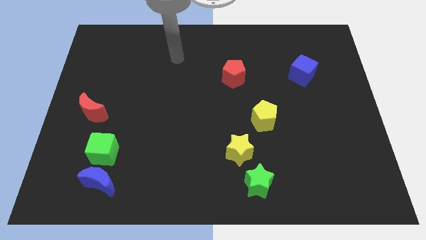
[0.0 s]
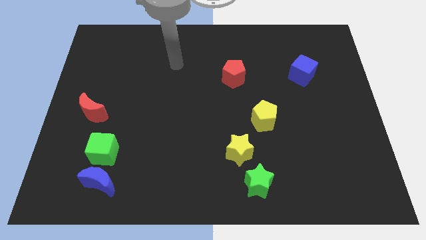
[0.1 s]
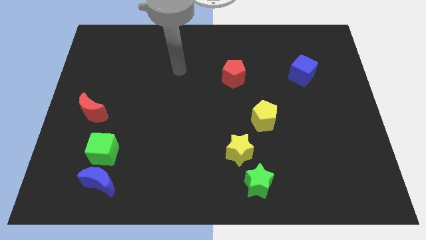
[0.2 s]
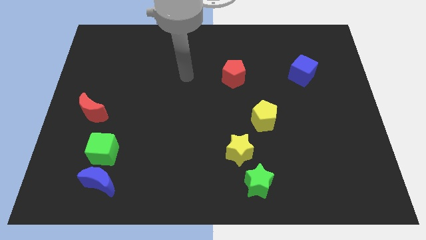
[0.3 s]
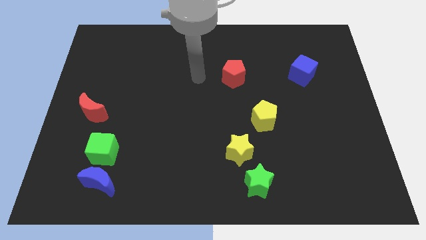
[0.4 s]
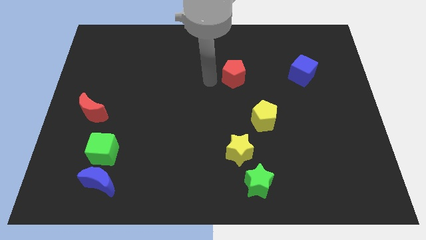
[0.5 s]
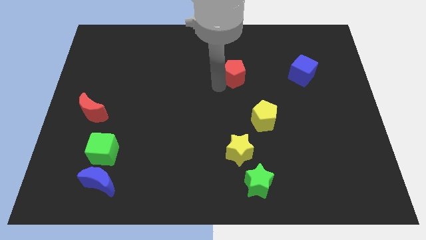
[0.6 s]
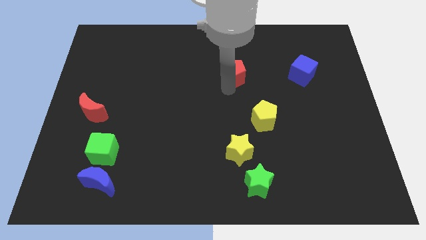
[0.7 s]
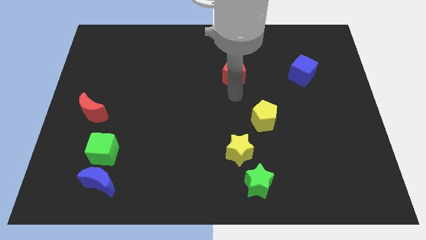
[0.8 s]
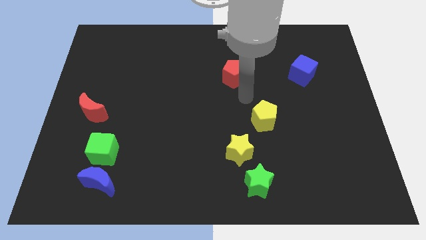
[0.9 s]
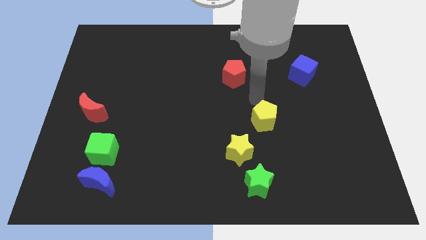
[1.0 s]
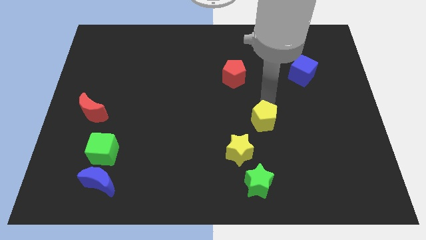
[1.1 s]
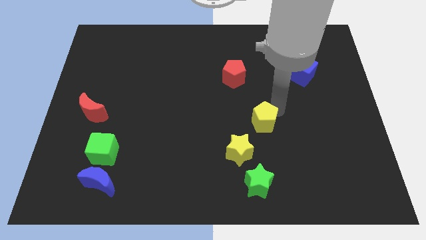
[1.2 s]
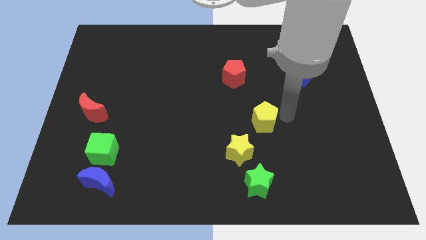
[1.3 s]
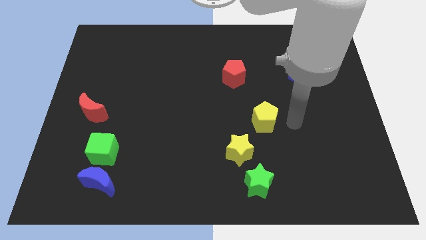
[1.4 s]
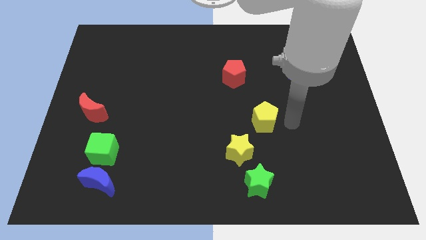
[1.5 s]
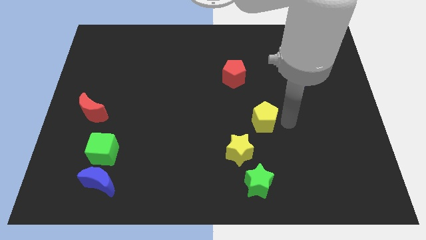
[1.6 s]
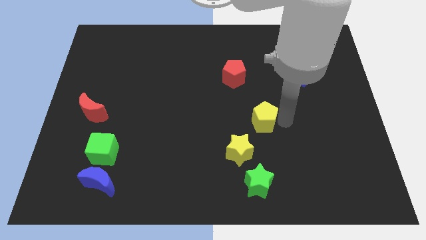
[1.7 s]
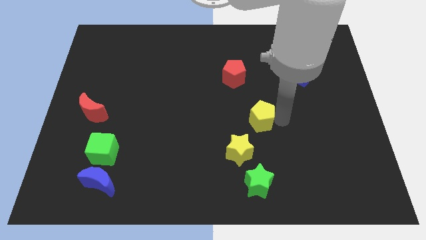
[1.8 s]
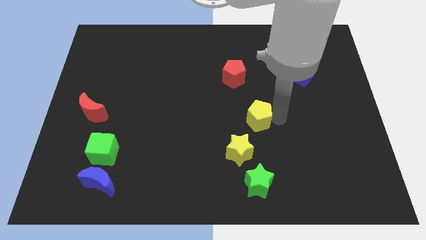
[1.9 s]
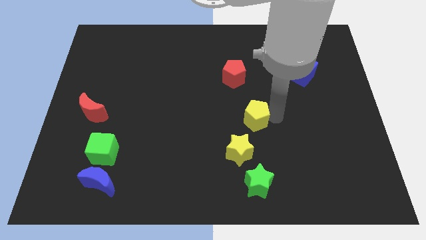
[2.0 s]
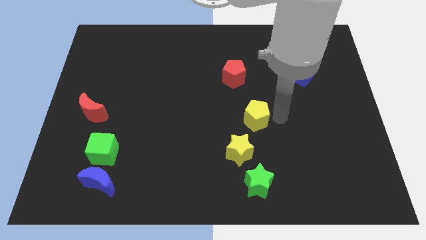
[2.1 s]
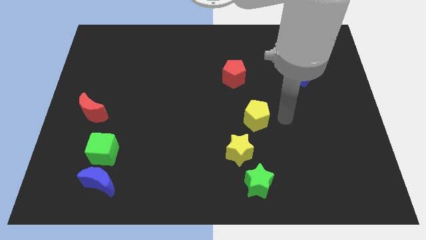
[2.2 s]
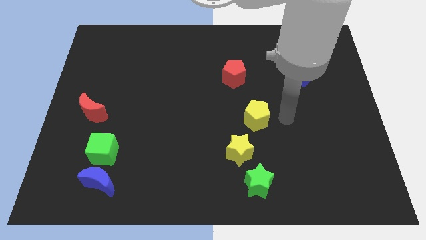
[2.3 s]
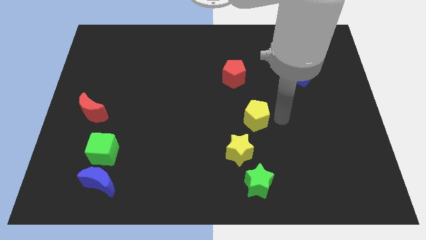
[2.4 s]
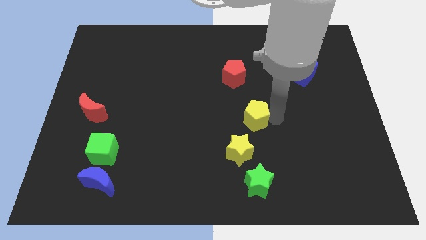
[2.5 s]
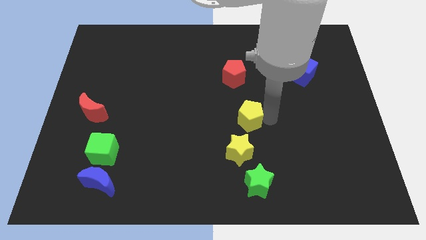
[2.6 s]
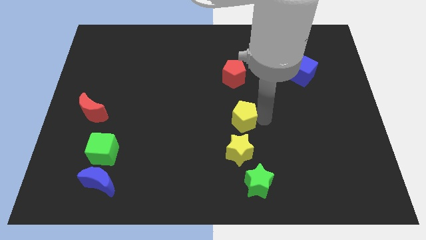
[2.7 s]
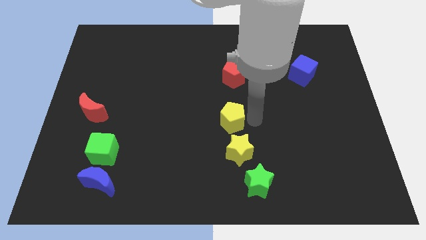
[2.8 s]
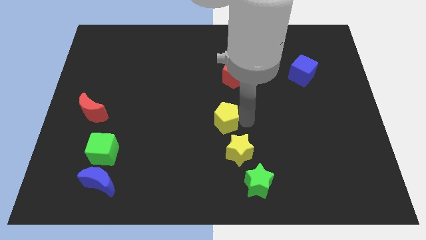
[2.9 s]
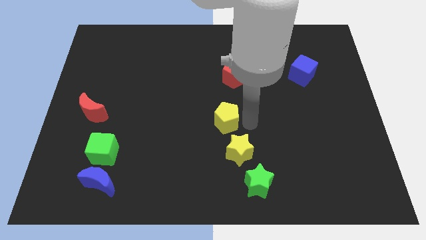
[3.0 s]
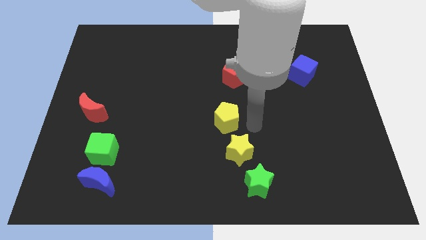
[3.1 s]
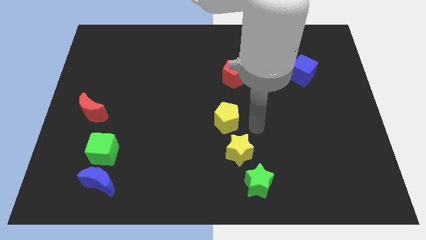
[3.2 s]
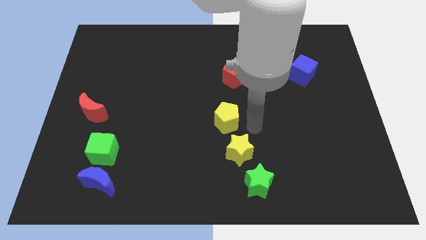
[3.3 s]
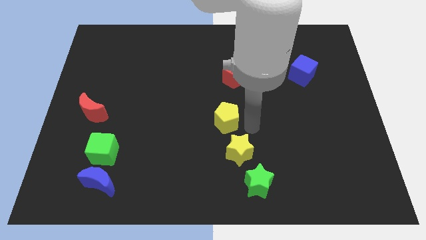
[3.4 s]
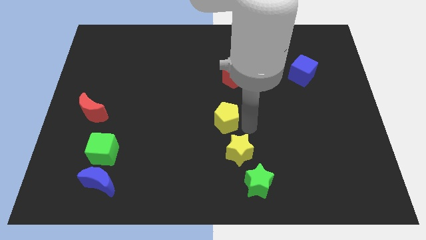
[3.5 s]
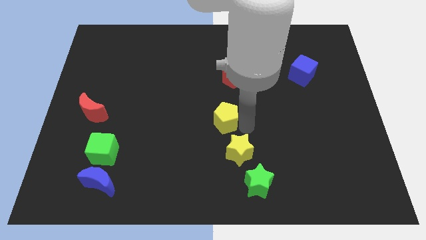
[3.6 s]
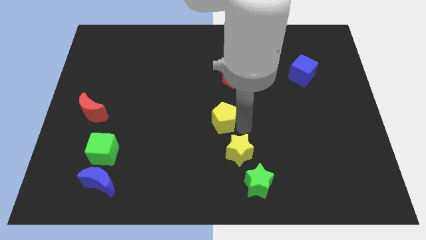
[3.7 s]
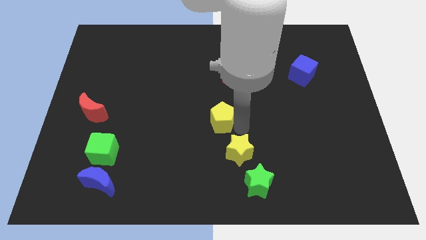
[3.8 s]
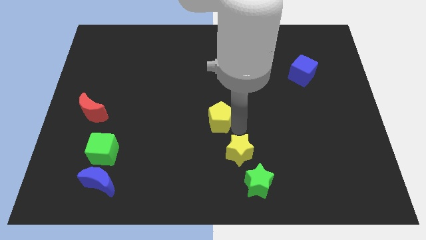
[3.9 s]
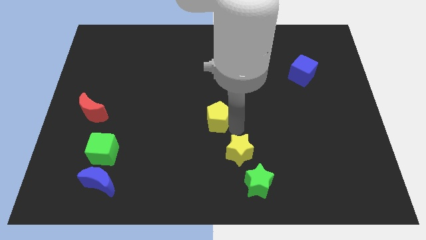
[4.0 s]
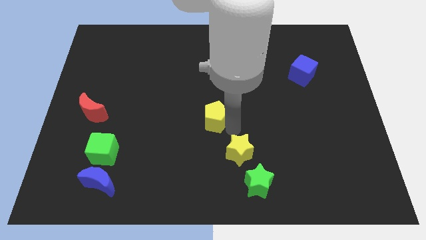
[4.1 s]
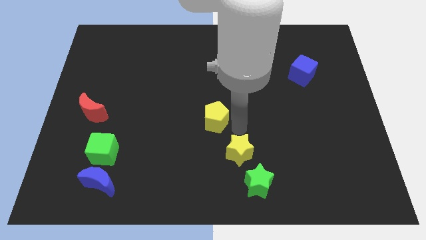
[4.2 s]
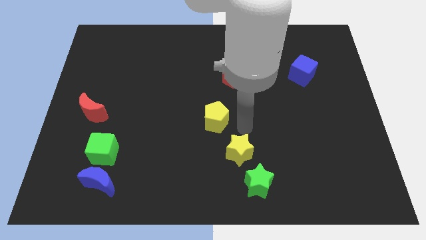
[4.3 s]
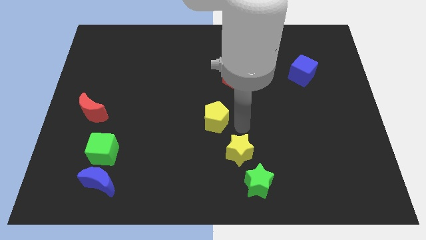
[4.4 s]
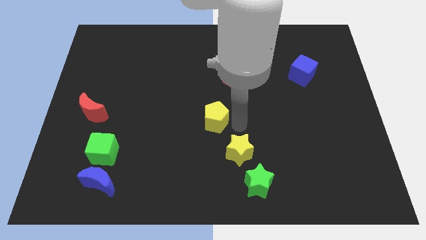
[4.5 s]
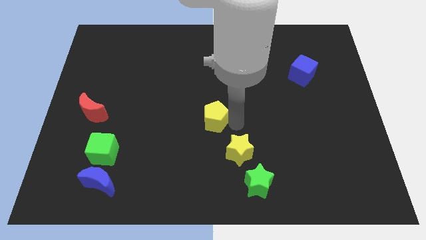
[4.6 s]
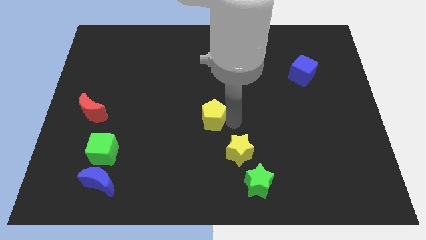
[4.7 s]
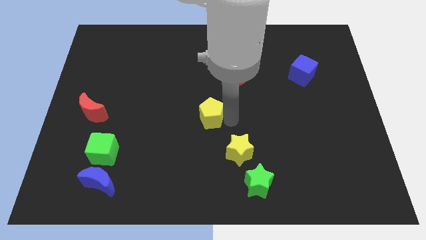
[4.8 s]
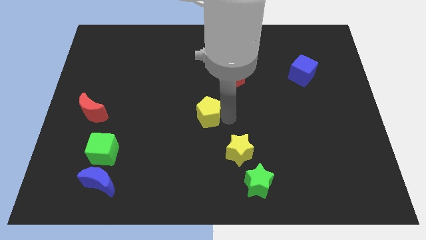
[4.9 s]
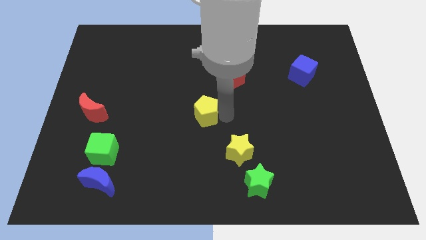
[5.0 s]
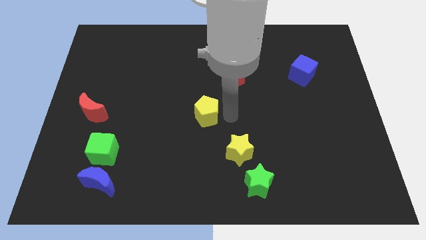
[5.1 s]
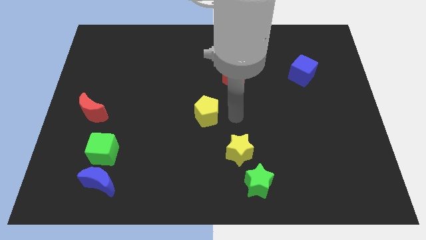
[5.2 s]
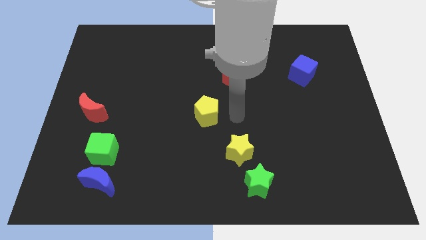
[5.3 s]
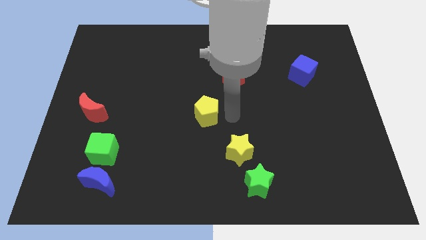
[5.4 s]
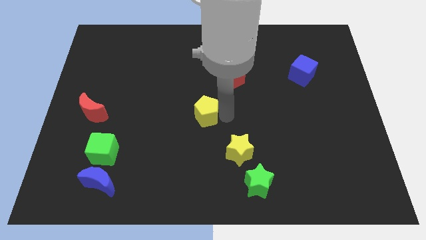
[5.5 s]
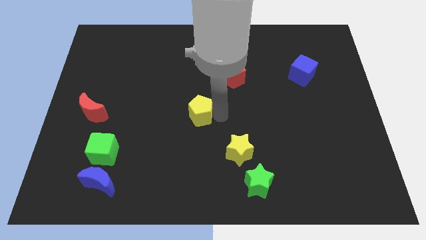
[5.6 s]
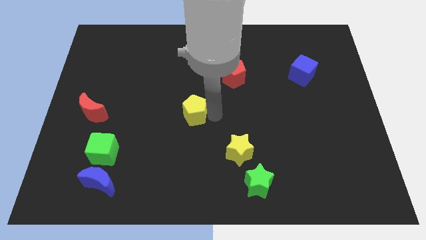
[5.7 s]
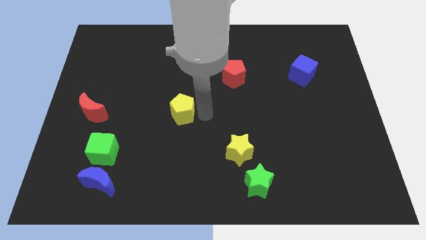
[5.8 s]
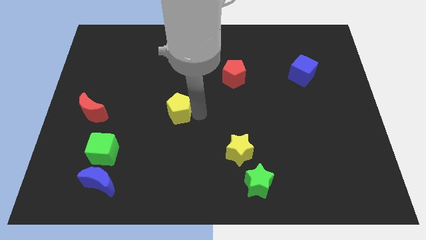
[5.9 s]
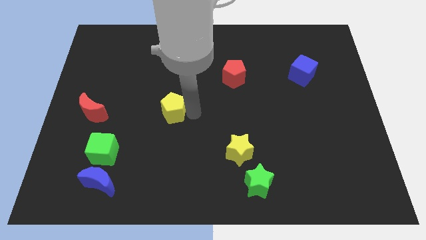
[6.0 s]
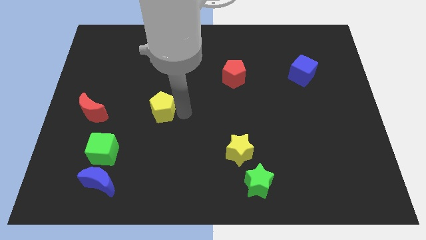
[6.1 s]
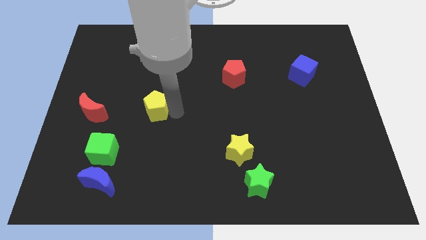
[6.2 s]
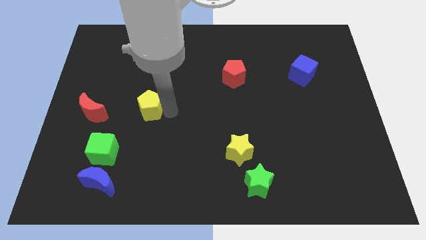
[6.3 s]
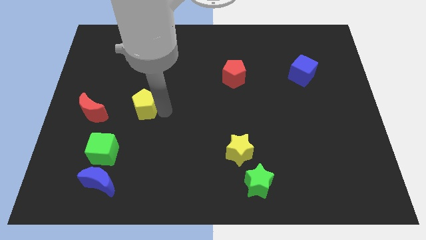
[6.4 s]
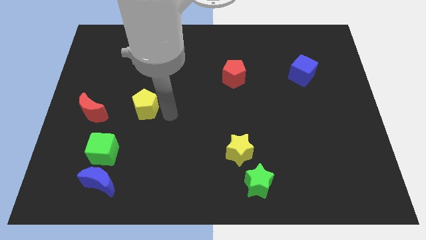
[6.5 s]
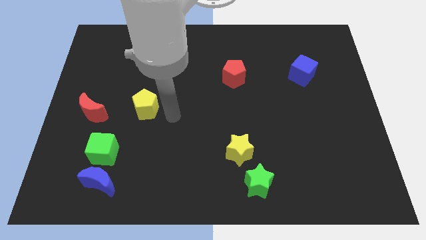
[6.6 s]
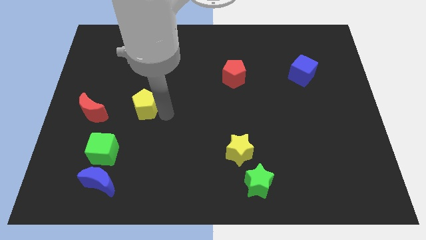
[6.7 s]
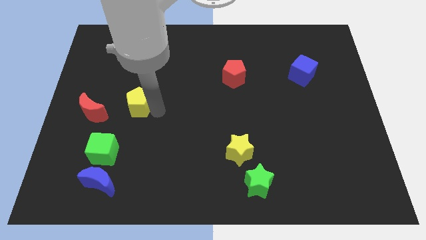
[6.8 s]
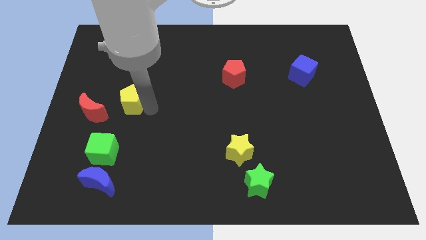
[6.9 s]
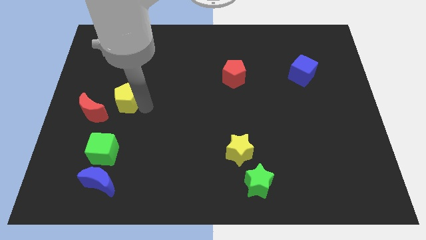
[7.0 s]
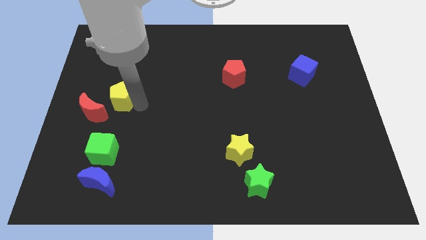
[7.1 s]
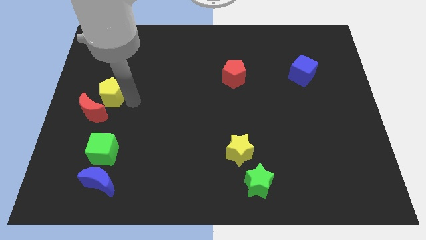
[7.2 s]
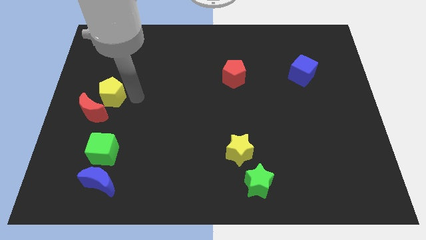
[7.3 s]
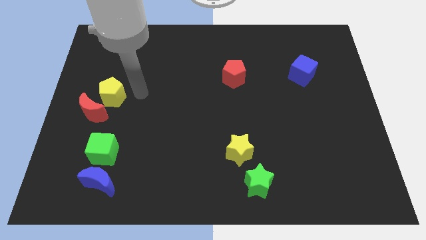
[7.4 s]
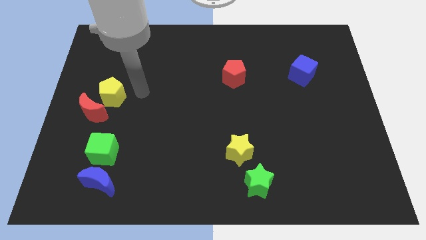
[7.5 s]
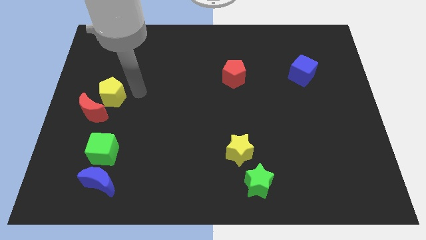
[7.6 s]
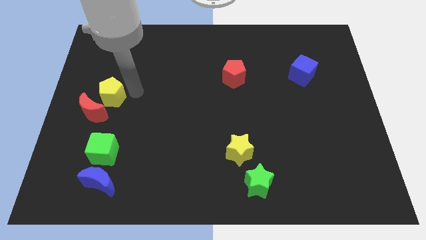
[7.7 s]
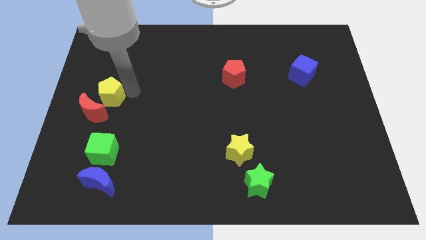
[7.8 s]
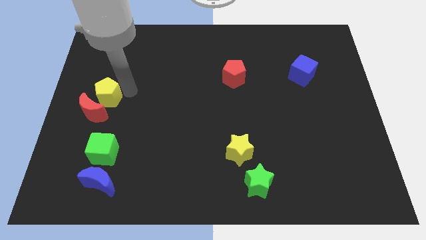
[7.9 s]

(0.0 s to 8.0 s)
move the yellow pentagon to the left side
